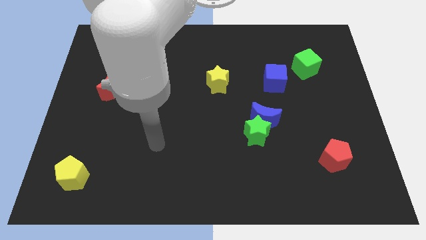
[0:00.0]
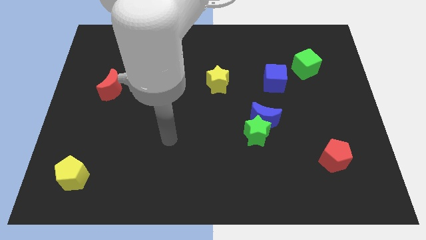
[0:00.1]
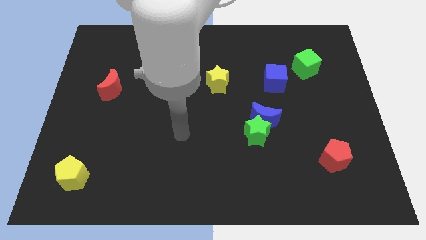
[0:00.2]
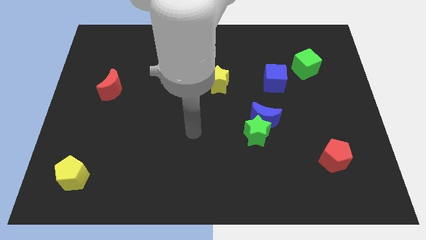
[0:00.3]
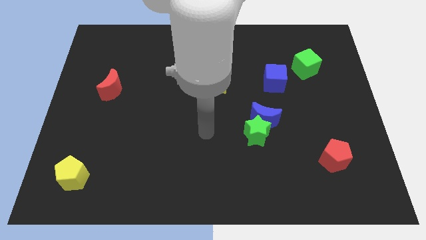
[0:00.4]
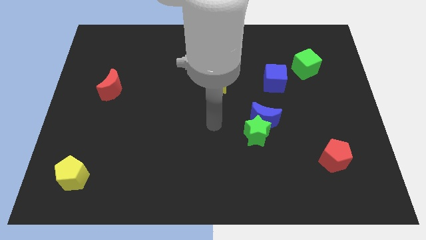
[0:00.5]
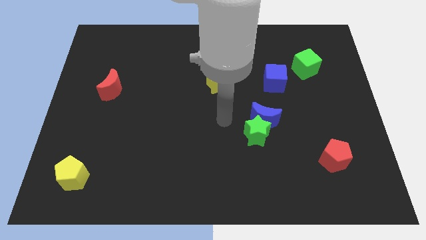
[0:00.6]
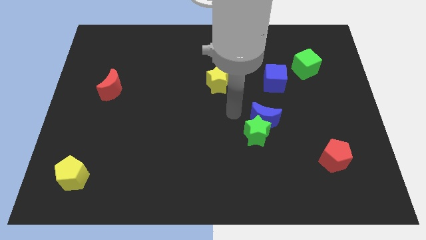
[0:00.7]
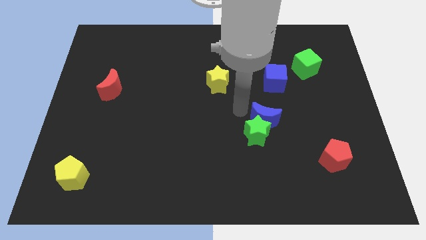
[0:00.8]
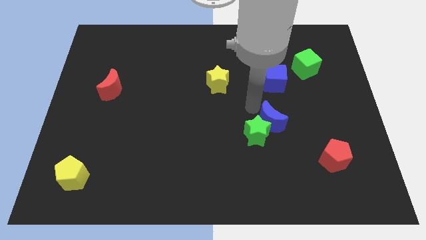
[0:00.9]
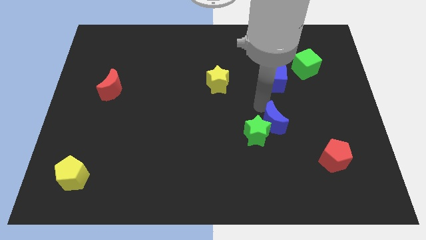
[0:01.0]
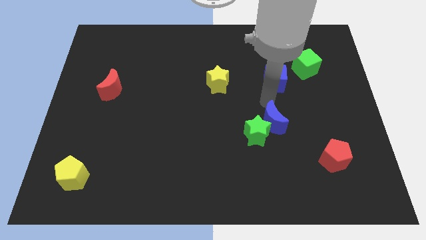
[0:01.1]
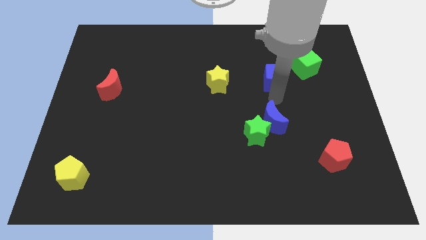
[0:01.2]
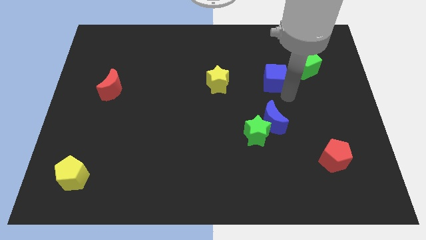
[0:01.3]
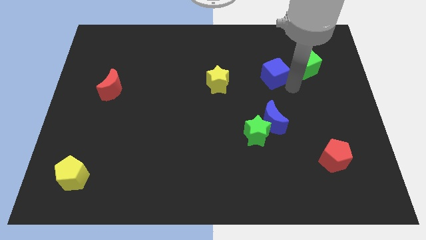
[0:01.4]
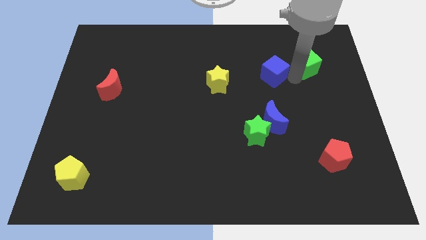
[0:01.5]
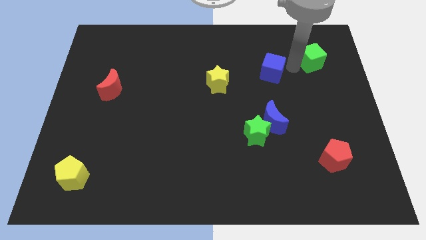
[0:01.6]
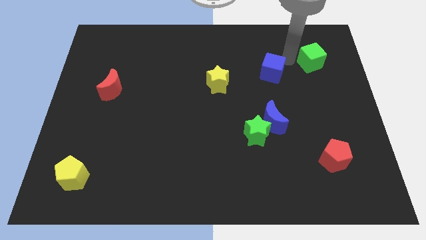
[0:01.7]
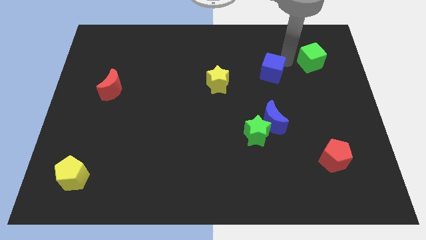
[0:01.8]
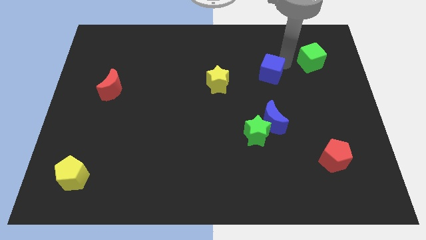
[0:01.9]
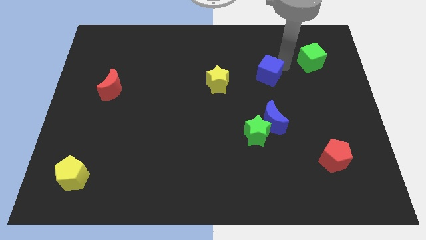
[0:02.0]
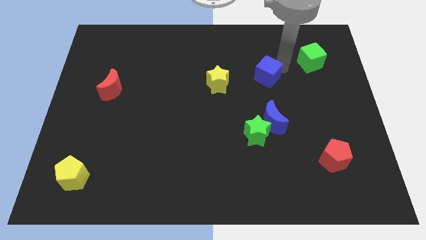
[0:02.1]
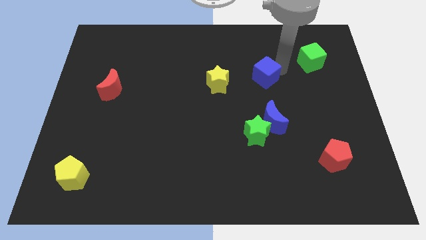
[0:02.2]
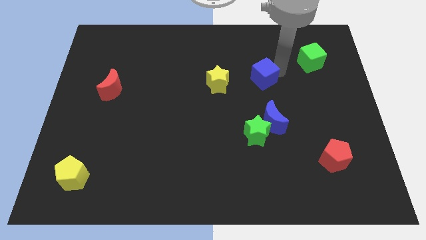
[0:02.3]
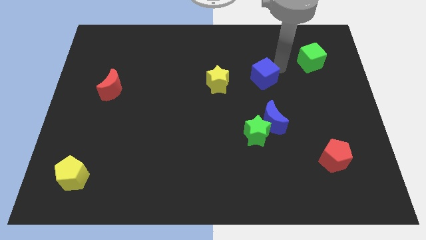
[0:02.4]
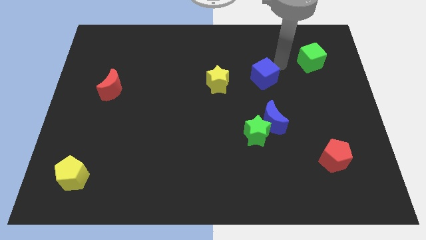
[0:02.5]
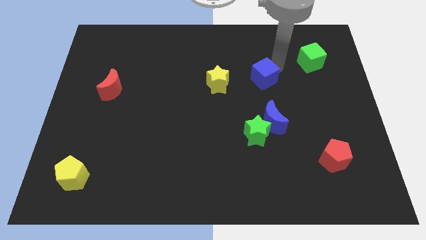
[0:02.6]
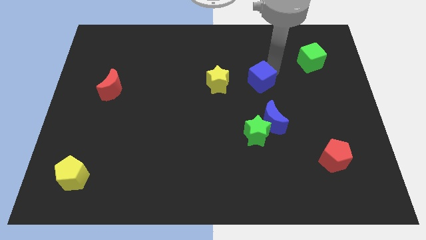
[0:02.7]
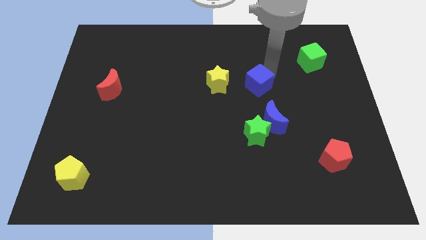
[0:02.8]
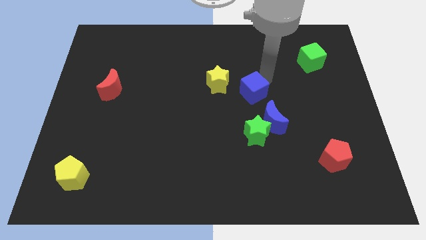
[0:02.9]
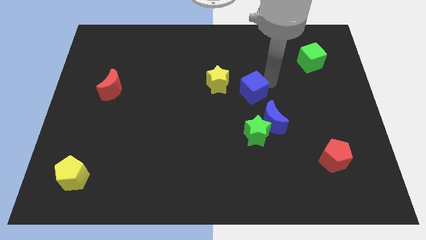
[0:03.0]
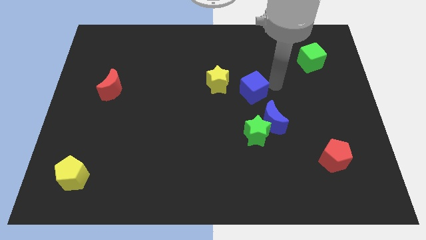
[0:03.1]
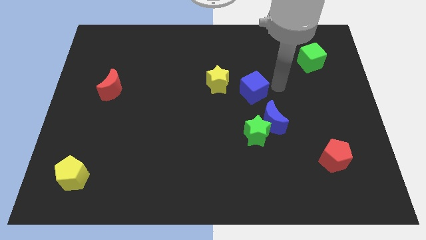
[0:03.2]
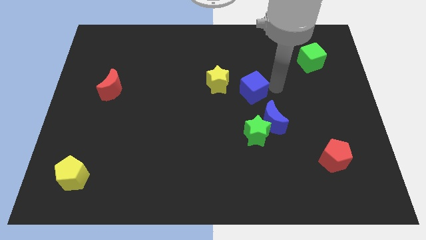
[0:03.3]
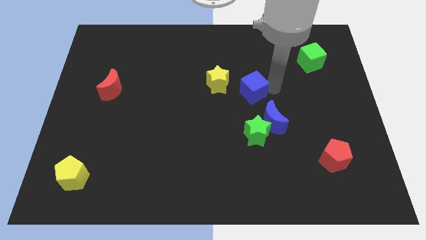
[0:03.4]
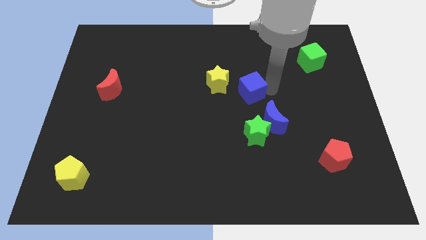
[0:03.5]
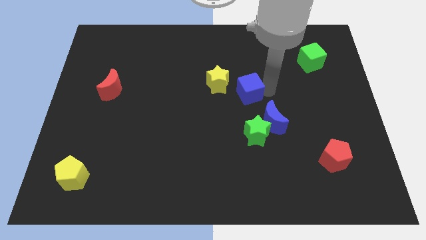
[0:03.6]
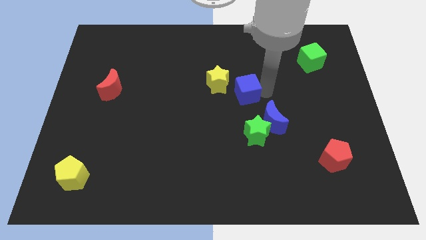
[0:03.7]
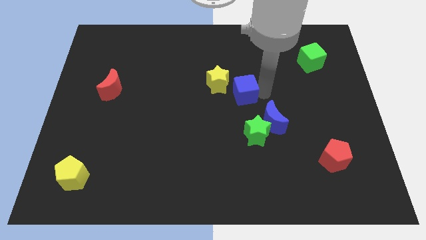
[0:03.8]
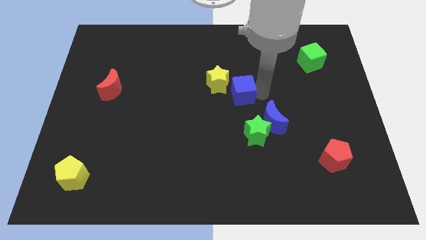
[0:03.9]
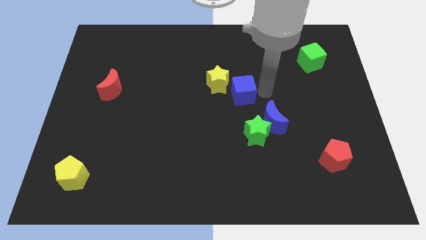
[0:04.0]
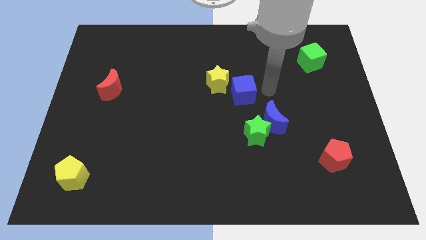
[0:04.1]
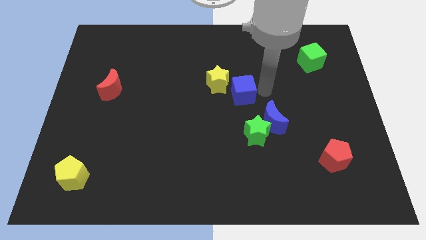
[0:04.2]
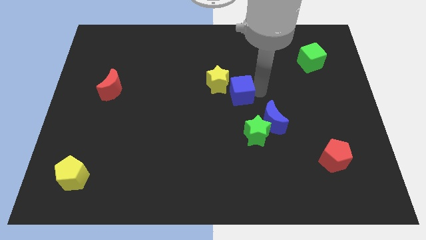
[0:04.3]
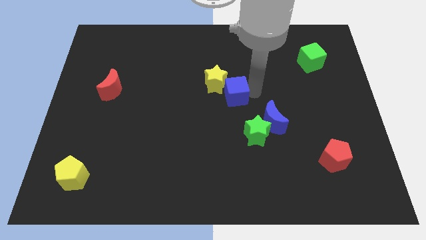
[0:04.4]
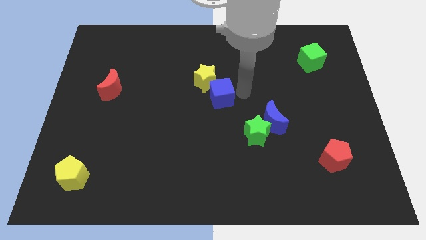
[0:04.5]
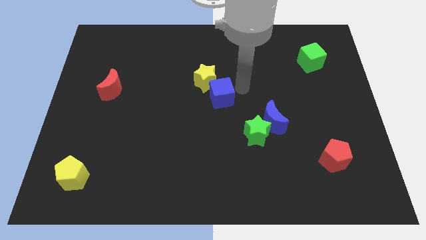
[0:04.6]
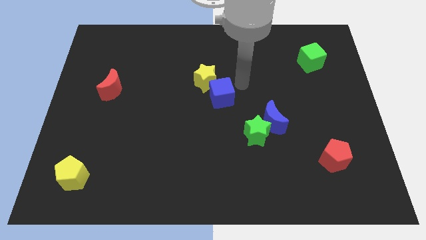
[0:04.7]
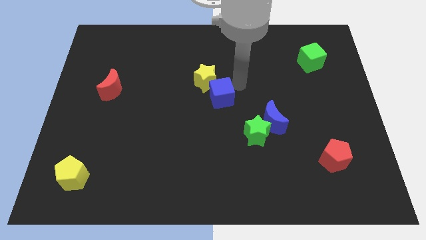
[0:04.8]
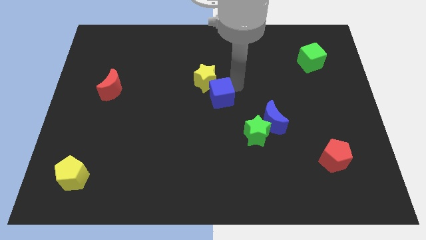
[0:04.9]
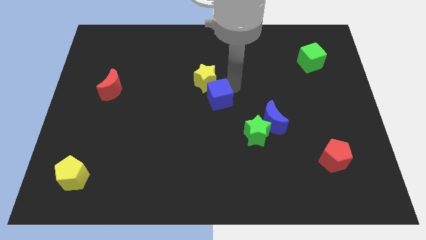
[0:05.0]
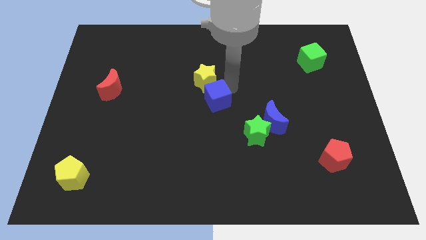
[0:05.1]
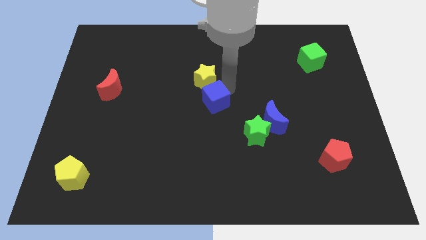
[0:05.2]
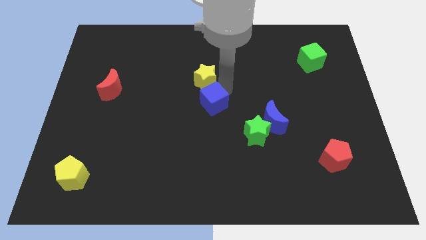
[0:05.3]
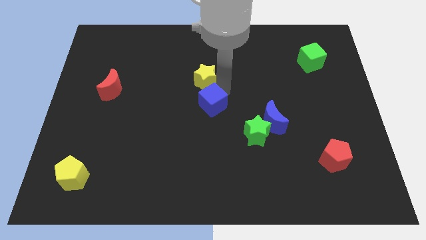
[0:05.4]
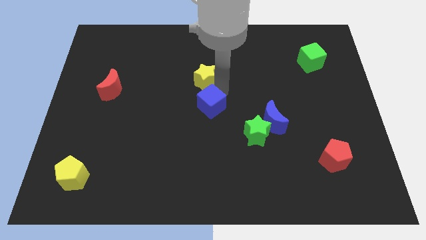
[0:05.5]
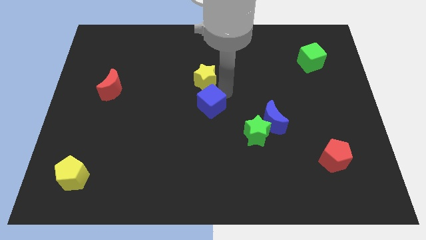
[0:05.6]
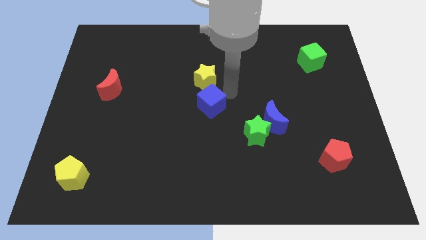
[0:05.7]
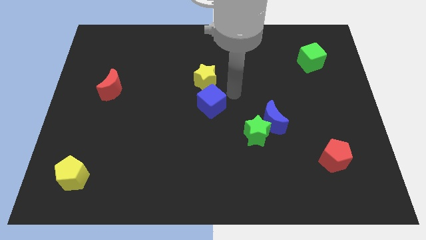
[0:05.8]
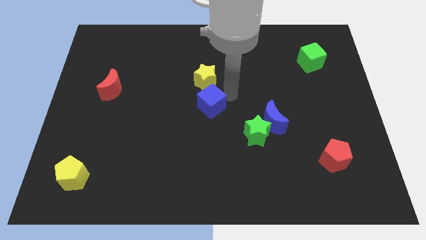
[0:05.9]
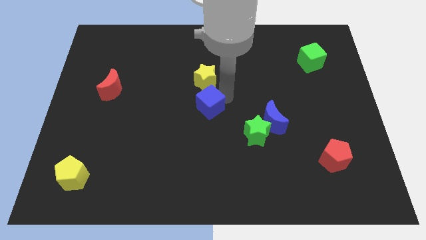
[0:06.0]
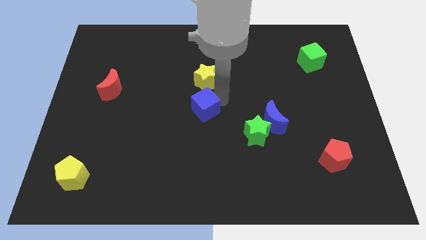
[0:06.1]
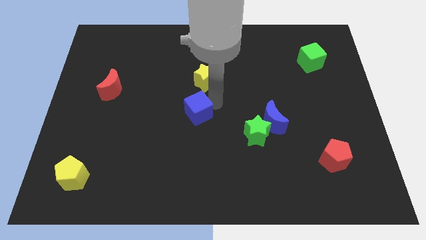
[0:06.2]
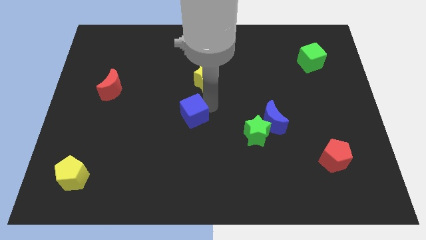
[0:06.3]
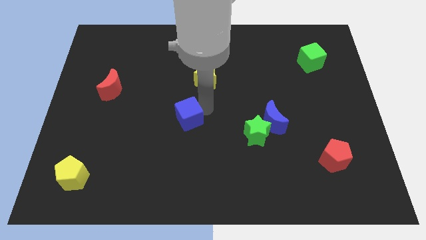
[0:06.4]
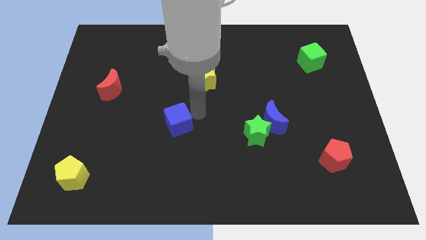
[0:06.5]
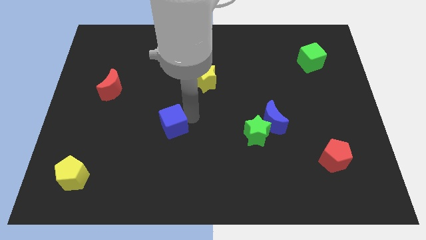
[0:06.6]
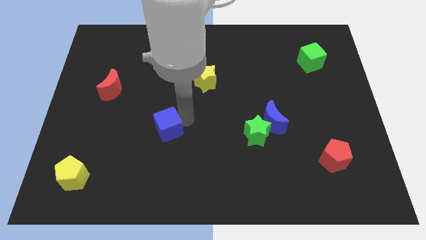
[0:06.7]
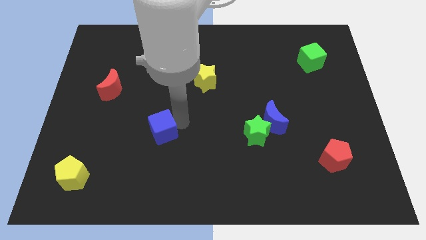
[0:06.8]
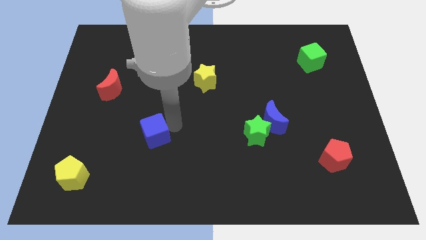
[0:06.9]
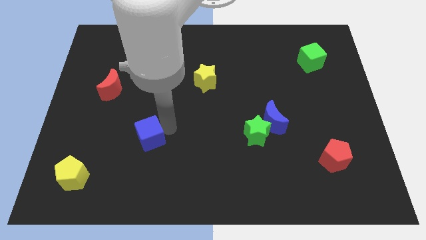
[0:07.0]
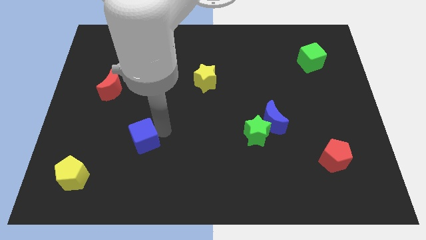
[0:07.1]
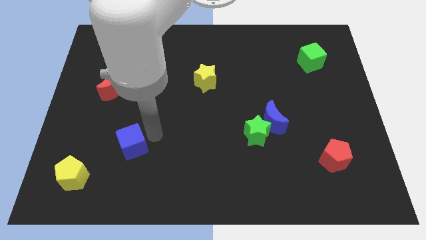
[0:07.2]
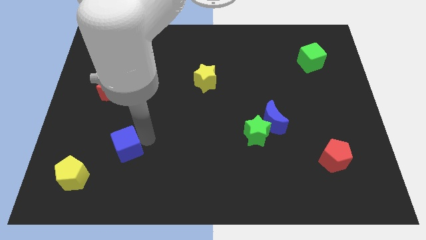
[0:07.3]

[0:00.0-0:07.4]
slide the blue cube to the top right side of the yellow pentagon

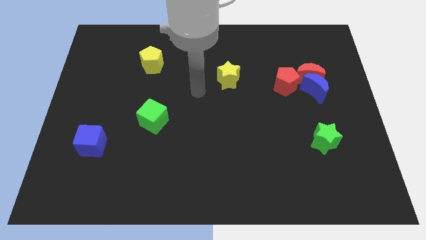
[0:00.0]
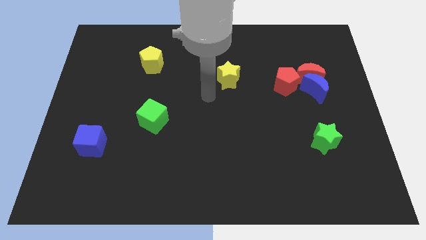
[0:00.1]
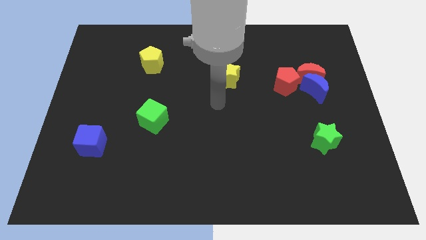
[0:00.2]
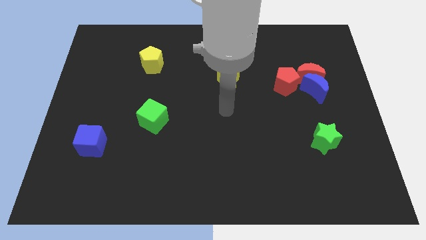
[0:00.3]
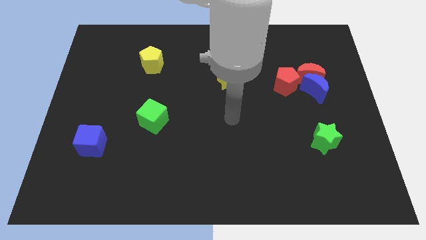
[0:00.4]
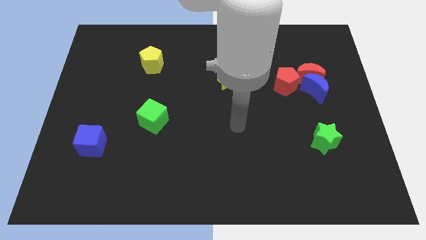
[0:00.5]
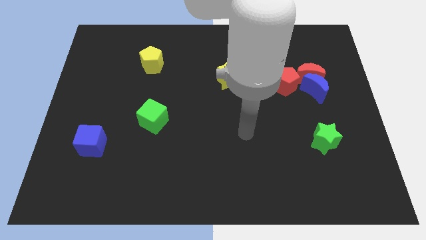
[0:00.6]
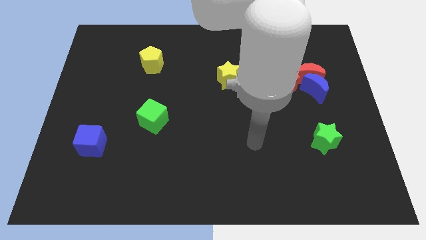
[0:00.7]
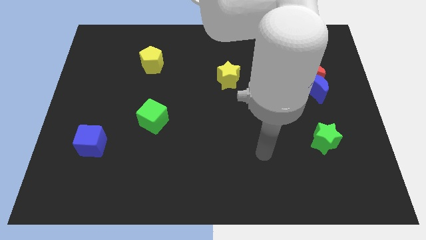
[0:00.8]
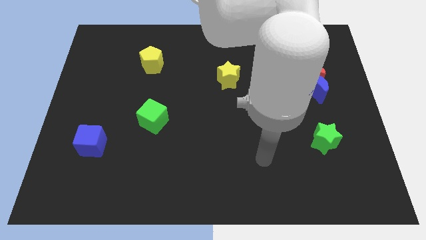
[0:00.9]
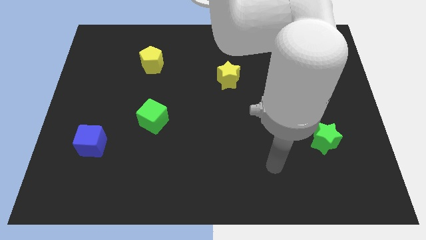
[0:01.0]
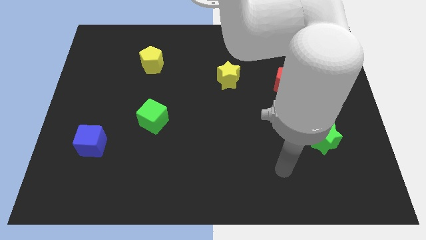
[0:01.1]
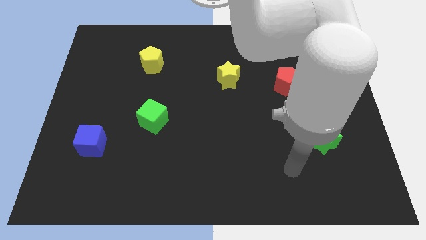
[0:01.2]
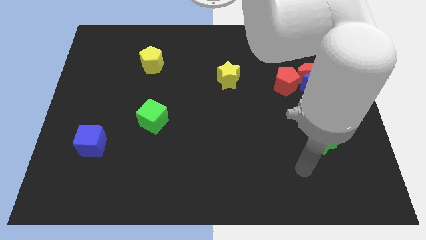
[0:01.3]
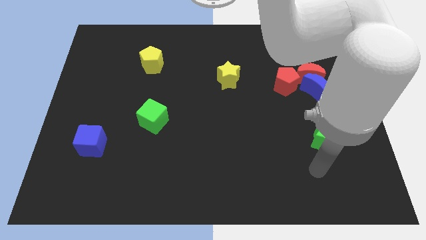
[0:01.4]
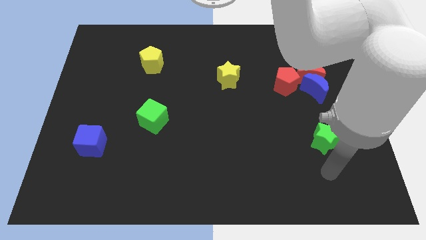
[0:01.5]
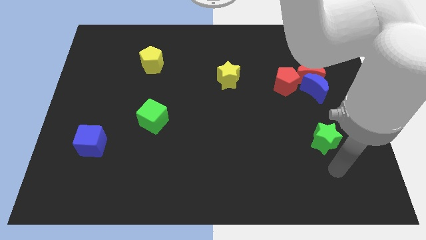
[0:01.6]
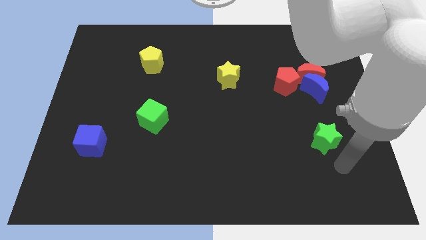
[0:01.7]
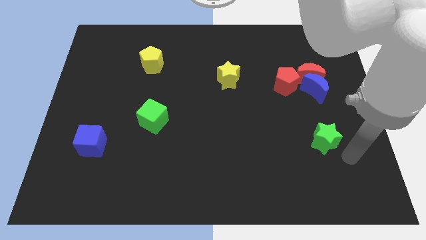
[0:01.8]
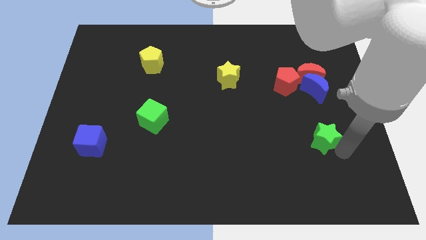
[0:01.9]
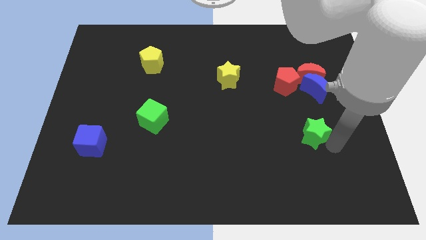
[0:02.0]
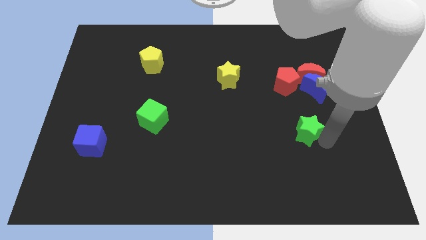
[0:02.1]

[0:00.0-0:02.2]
slide the green star below the red pentagon
